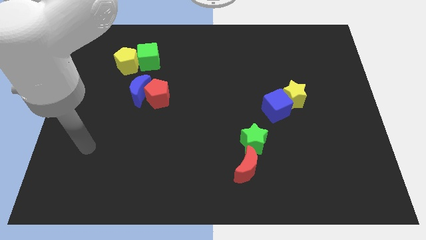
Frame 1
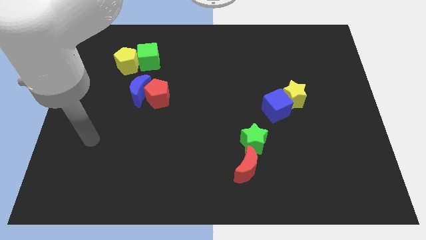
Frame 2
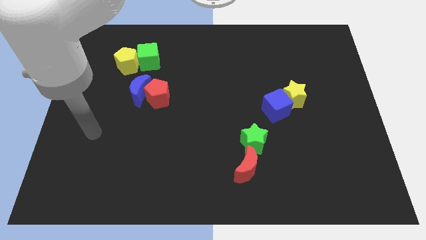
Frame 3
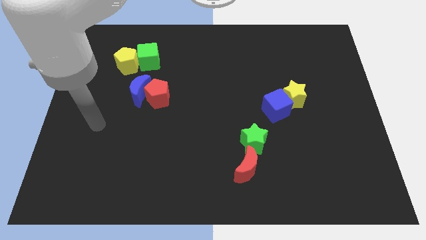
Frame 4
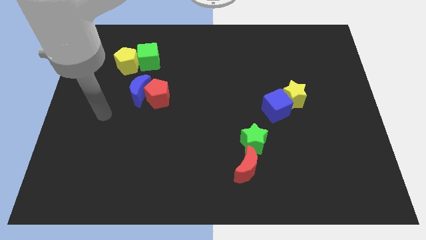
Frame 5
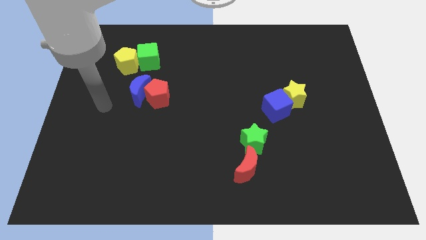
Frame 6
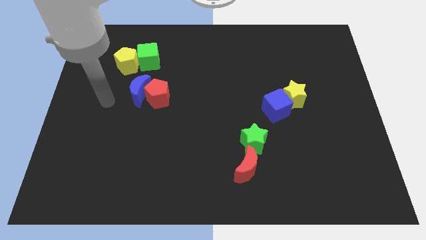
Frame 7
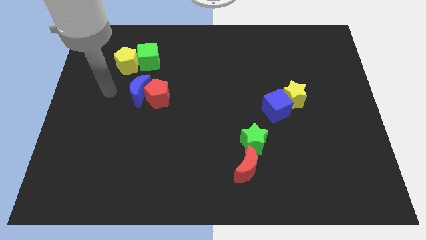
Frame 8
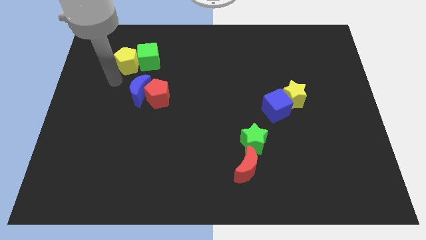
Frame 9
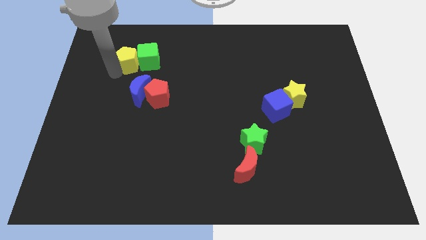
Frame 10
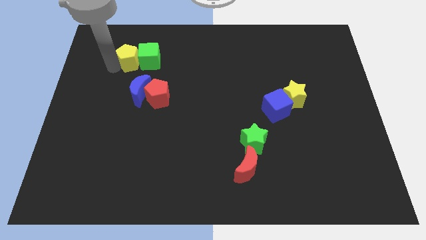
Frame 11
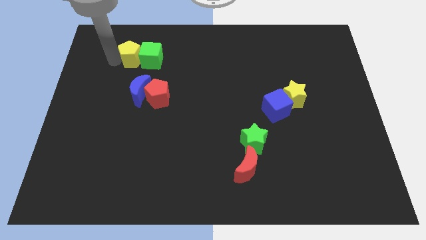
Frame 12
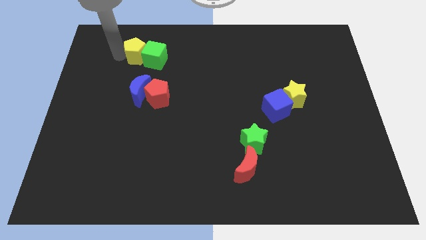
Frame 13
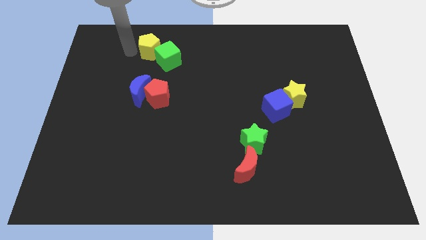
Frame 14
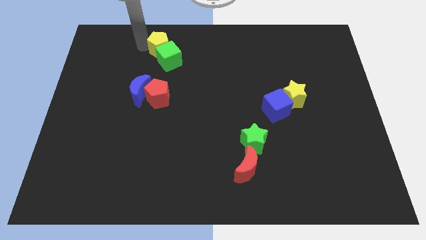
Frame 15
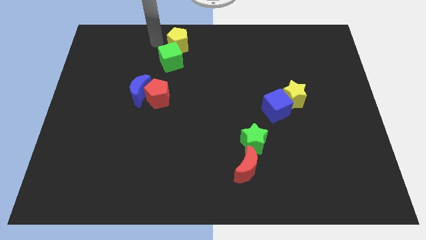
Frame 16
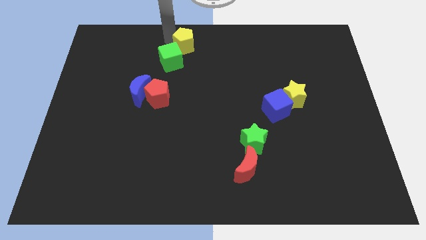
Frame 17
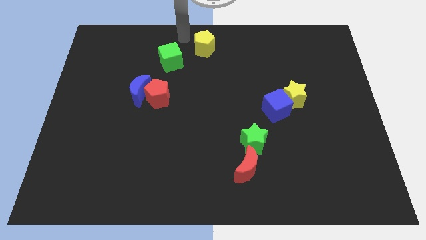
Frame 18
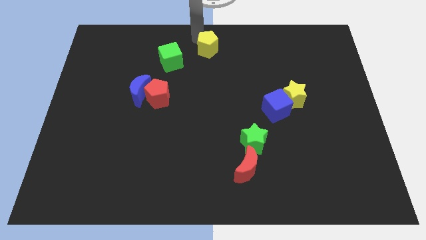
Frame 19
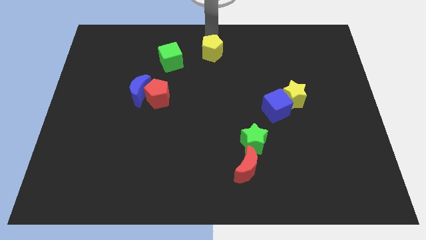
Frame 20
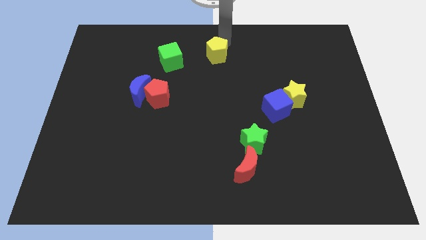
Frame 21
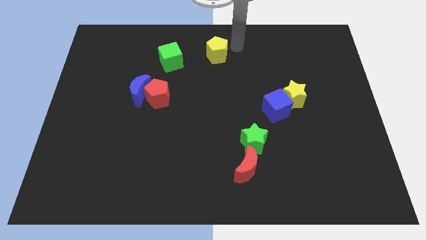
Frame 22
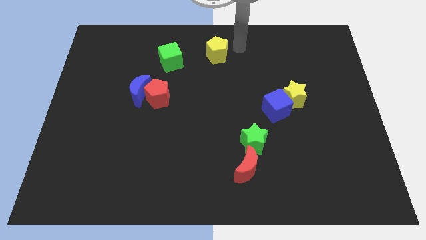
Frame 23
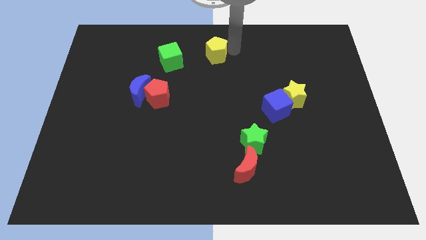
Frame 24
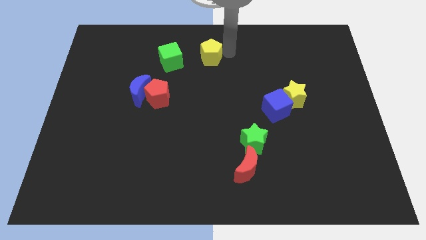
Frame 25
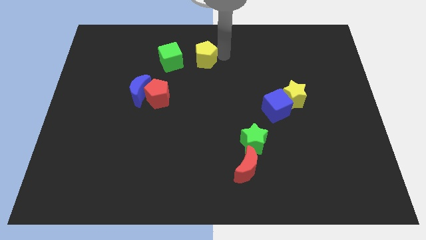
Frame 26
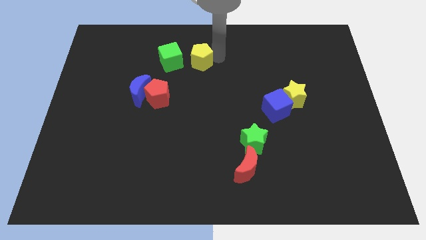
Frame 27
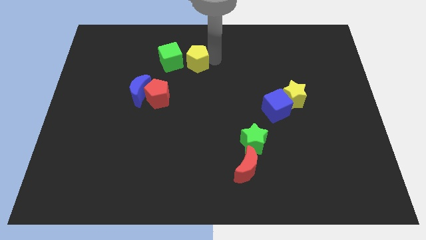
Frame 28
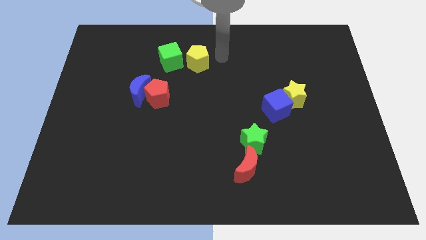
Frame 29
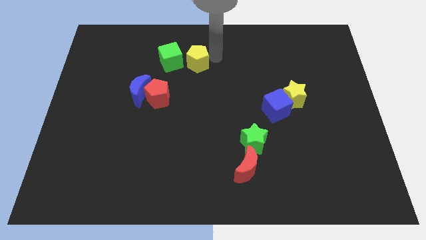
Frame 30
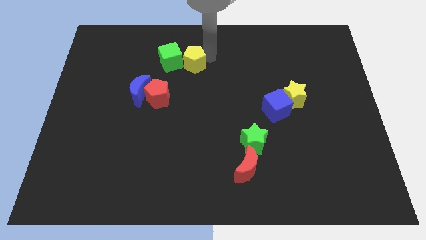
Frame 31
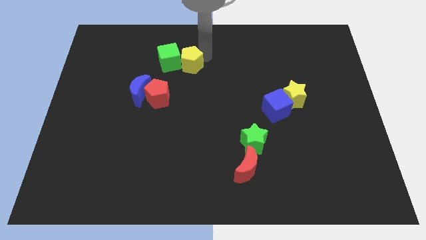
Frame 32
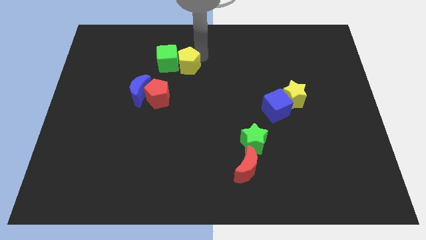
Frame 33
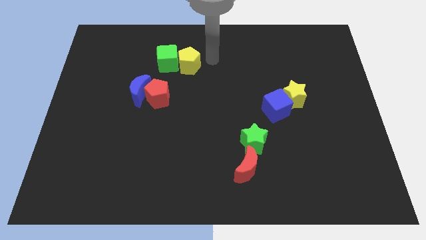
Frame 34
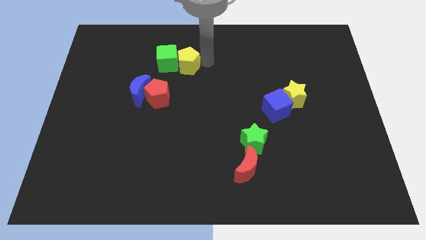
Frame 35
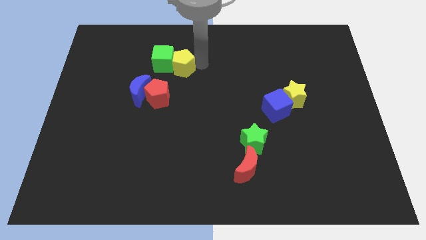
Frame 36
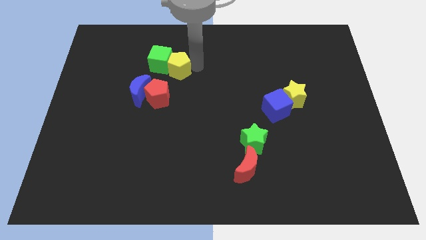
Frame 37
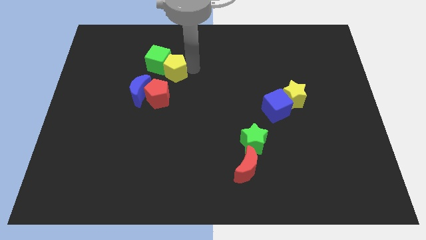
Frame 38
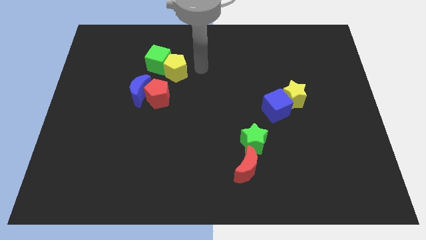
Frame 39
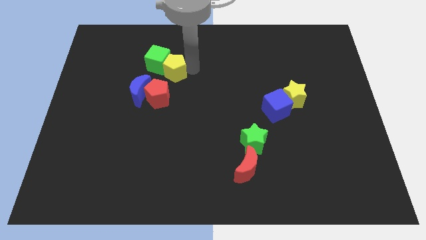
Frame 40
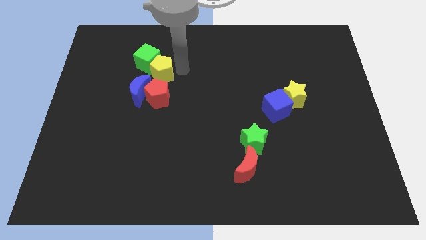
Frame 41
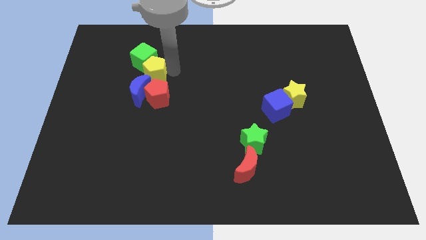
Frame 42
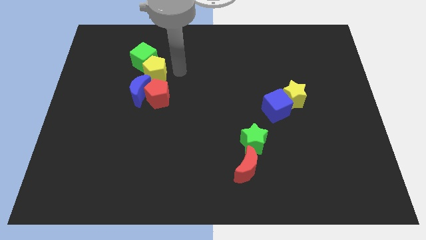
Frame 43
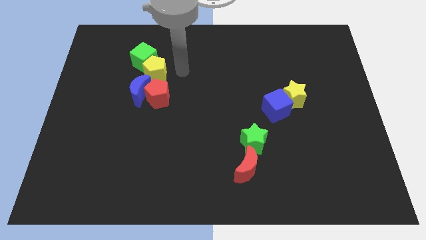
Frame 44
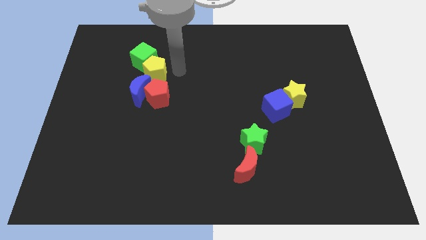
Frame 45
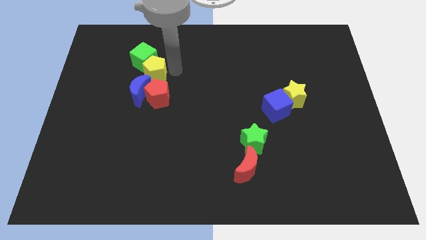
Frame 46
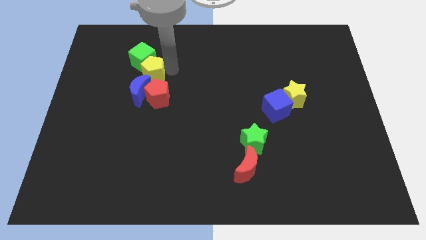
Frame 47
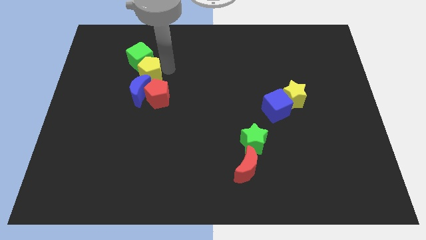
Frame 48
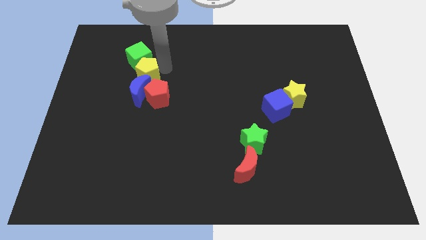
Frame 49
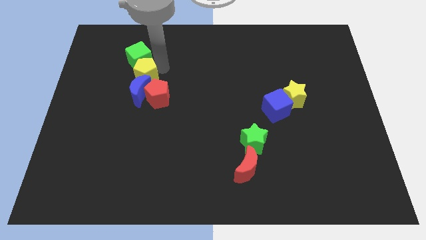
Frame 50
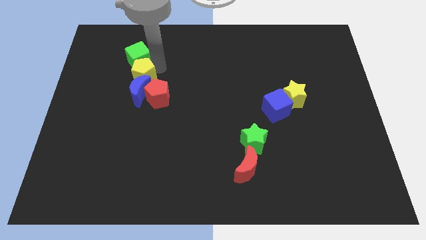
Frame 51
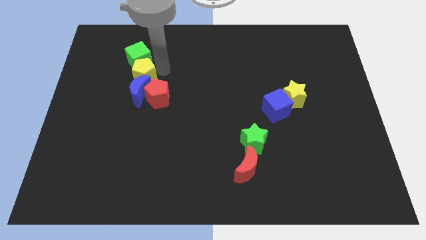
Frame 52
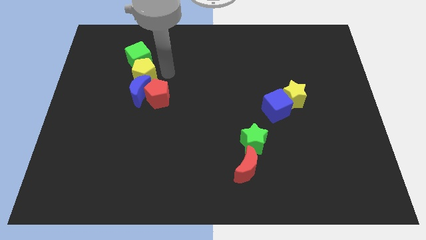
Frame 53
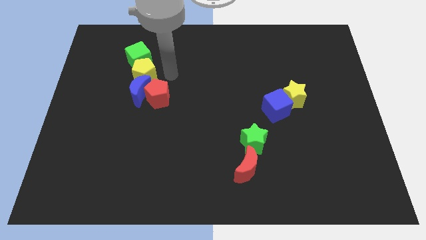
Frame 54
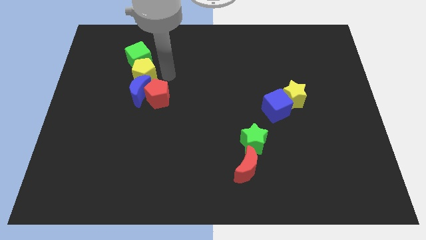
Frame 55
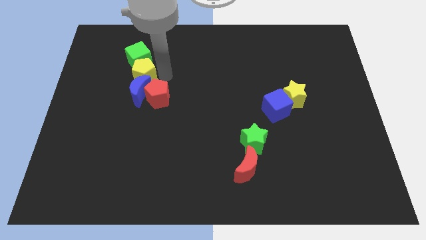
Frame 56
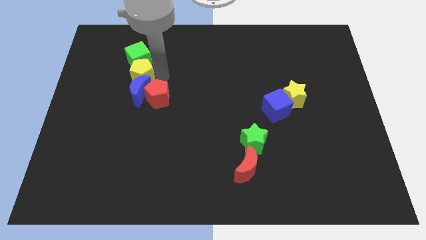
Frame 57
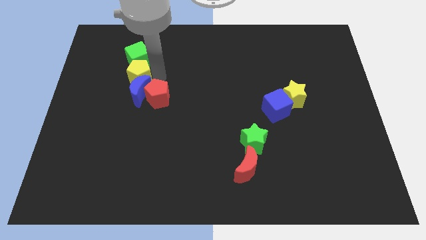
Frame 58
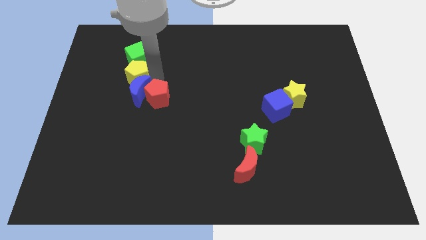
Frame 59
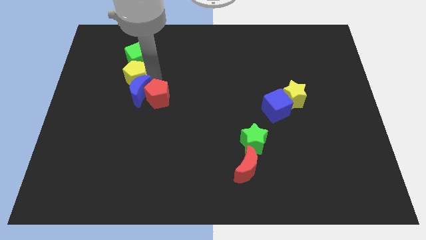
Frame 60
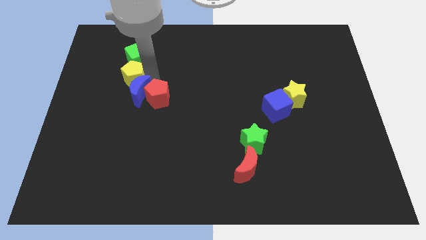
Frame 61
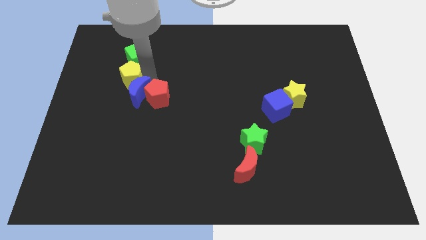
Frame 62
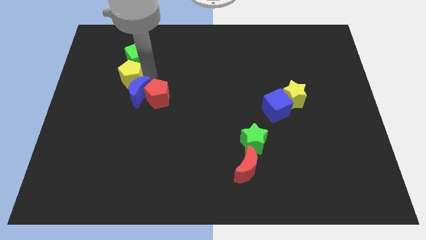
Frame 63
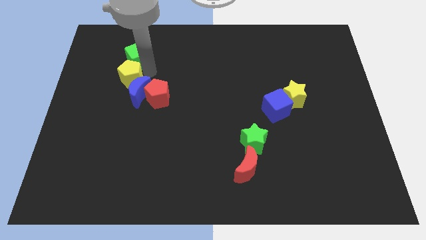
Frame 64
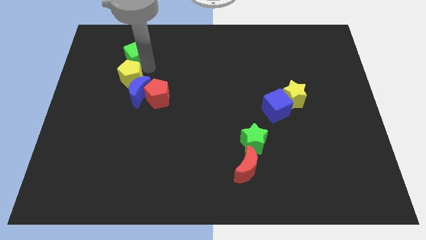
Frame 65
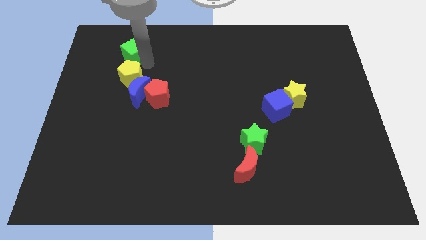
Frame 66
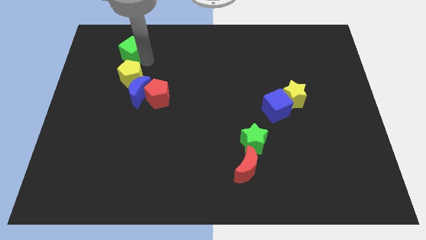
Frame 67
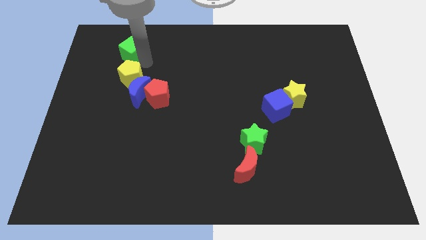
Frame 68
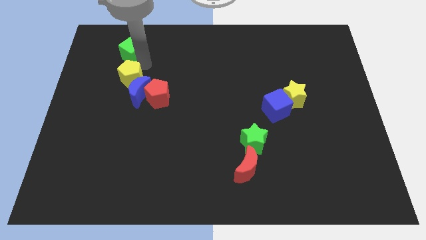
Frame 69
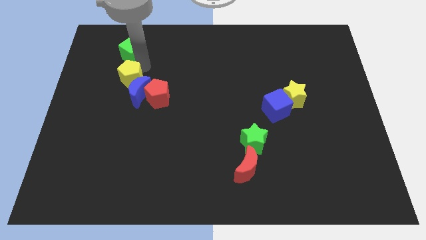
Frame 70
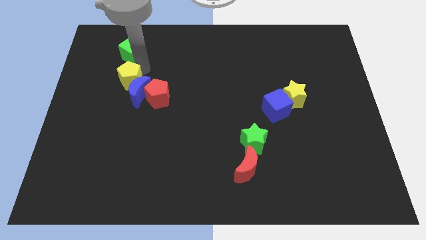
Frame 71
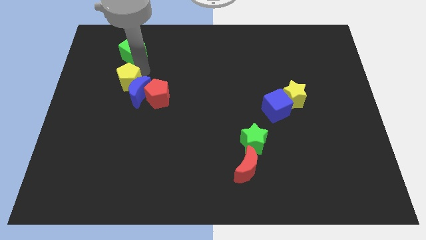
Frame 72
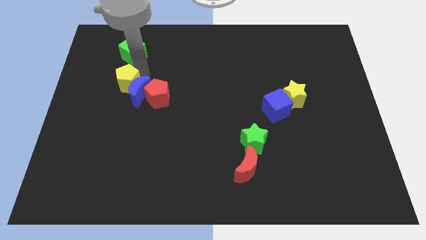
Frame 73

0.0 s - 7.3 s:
move the yellow pentagon to the left side of the red pentagon

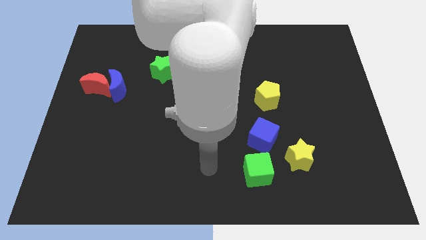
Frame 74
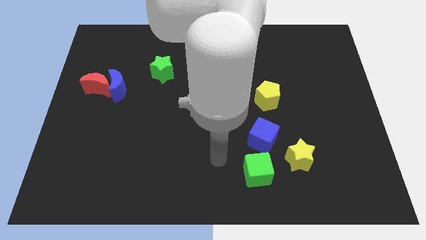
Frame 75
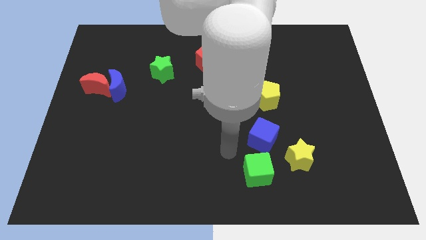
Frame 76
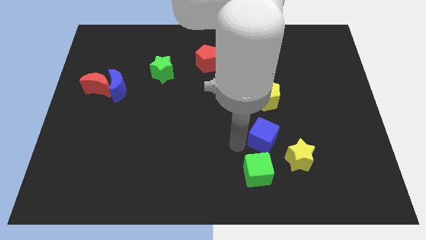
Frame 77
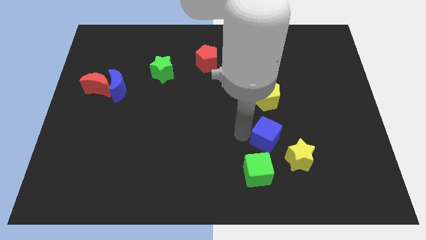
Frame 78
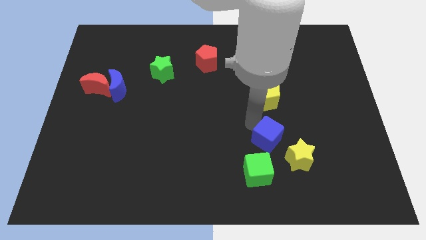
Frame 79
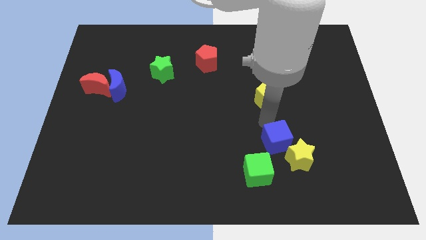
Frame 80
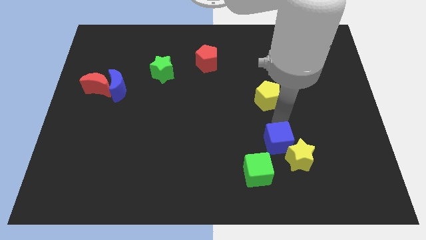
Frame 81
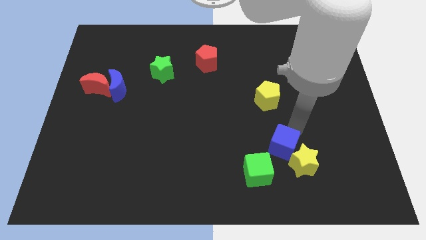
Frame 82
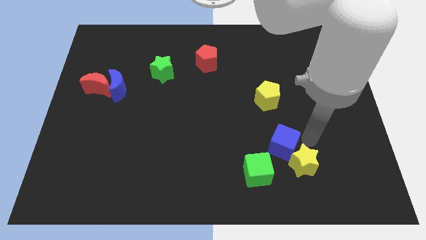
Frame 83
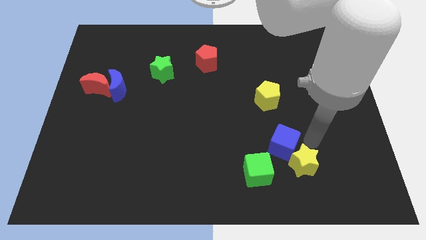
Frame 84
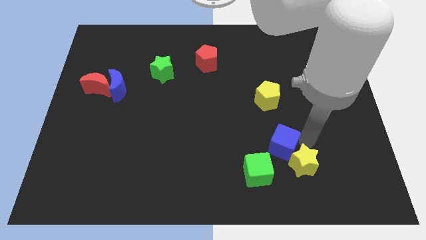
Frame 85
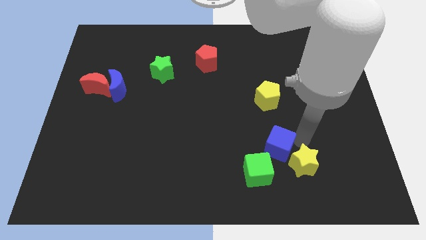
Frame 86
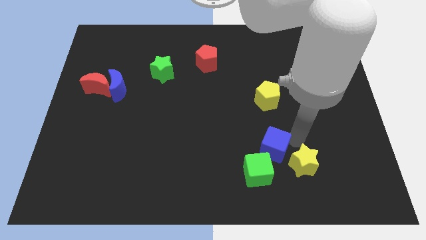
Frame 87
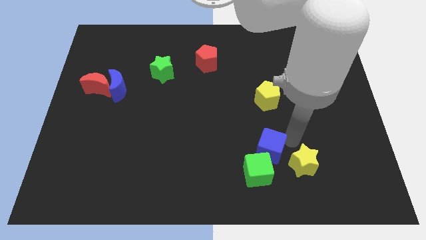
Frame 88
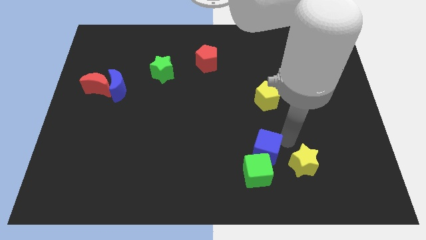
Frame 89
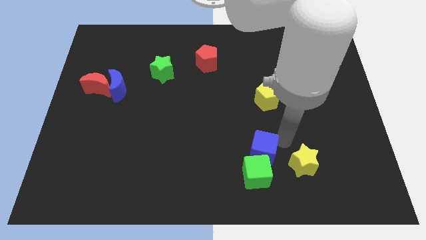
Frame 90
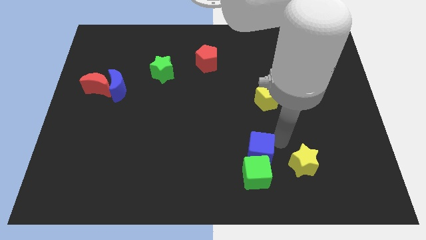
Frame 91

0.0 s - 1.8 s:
move the blue cube to the top left side of the green cube
